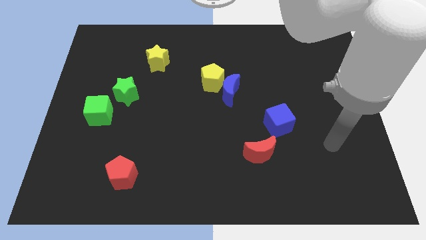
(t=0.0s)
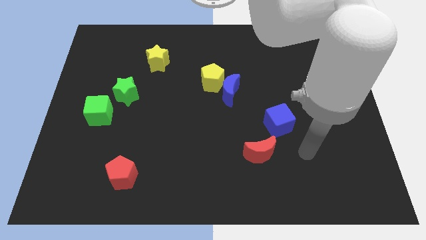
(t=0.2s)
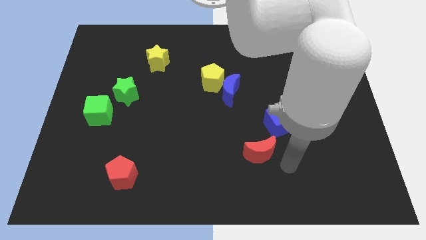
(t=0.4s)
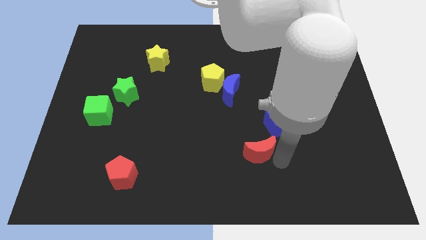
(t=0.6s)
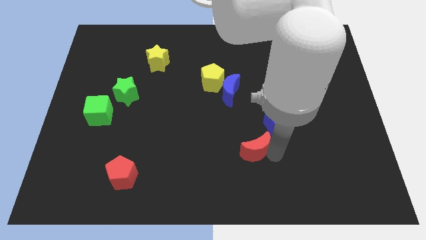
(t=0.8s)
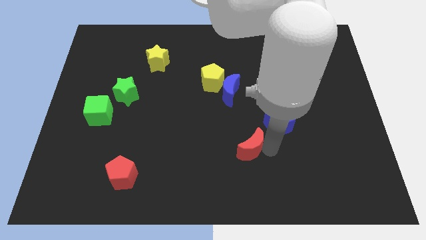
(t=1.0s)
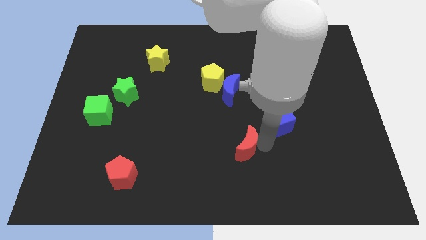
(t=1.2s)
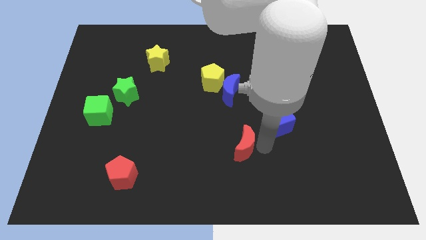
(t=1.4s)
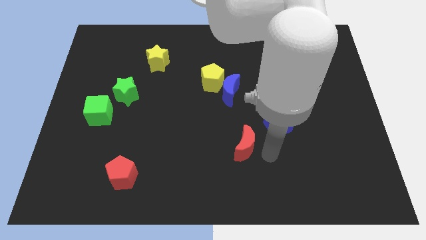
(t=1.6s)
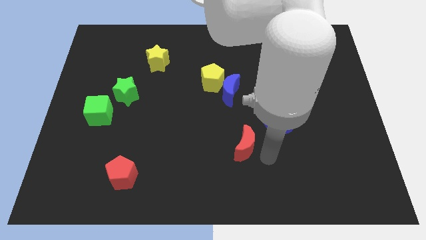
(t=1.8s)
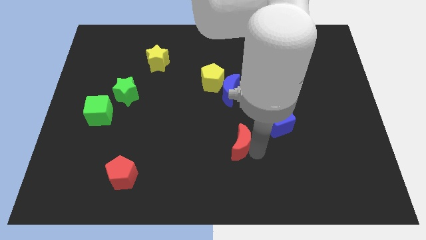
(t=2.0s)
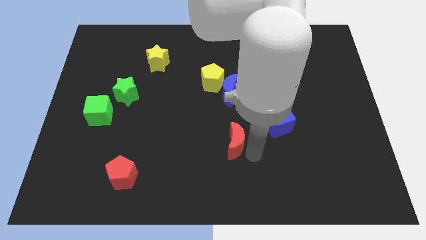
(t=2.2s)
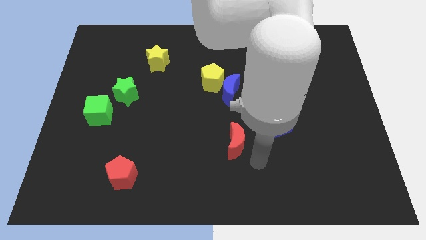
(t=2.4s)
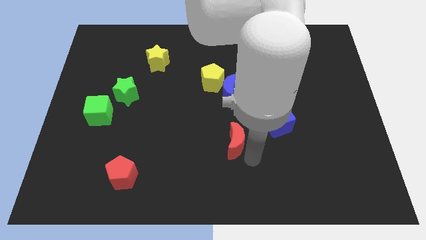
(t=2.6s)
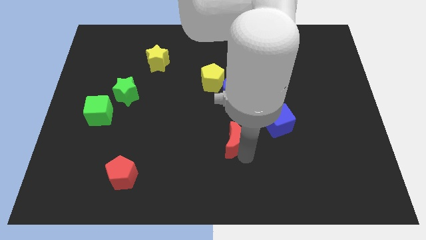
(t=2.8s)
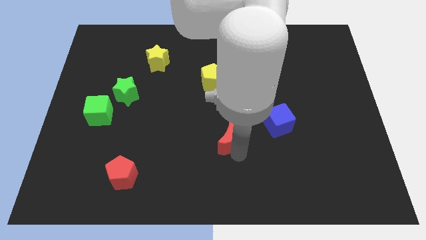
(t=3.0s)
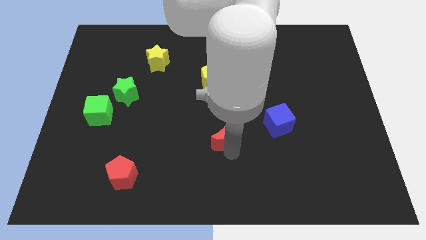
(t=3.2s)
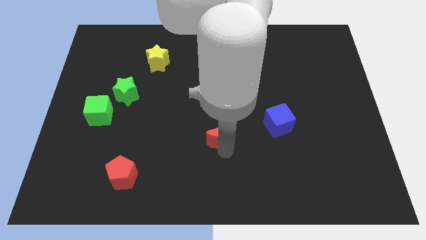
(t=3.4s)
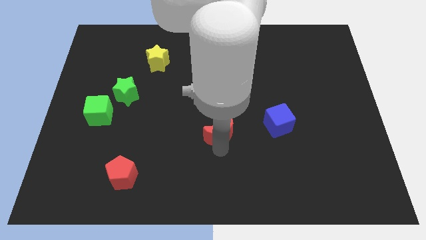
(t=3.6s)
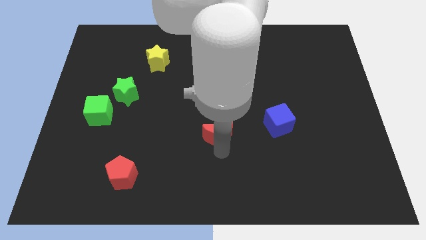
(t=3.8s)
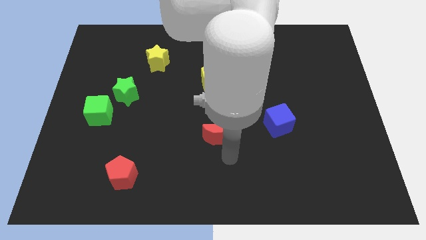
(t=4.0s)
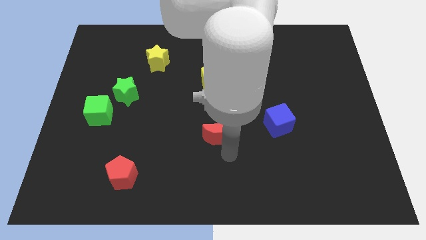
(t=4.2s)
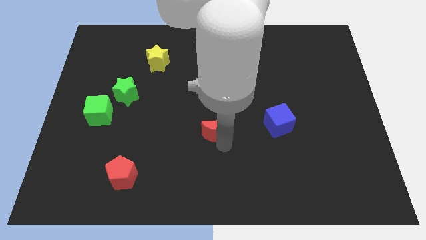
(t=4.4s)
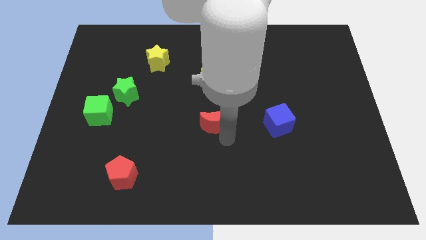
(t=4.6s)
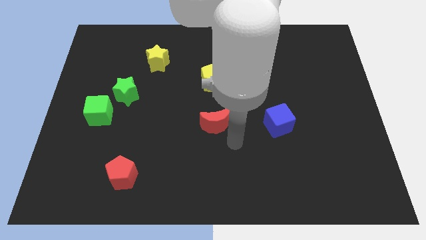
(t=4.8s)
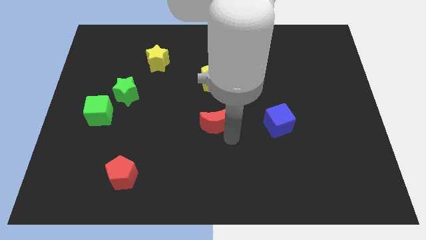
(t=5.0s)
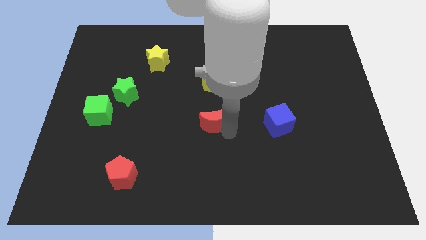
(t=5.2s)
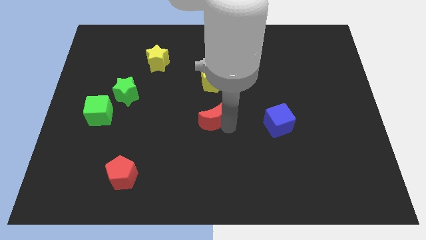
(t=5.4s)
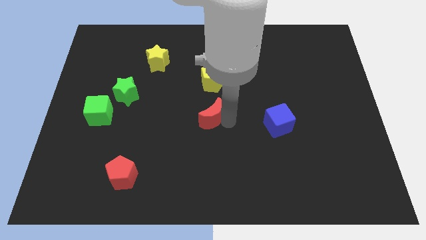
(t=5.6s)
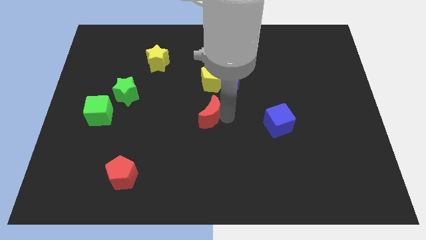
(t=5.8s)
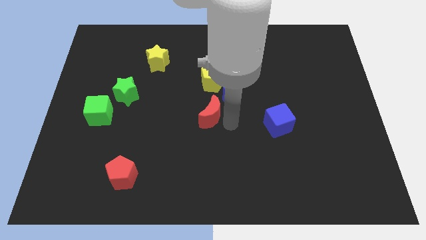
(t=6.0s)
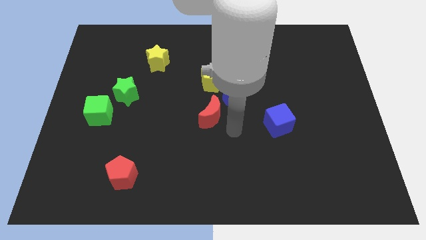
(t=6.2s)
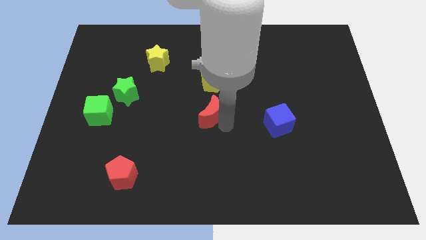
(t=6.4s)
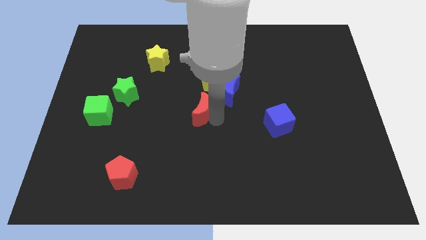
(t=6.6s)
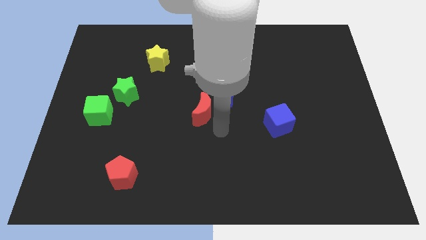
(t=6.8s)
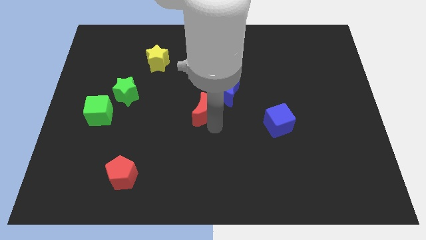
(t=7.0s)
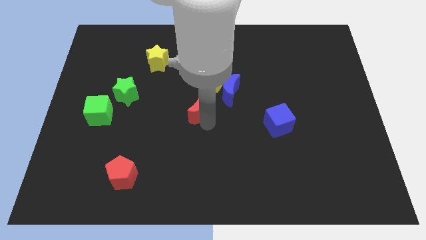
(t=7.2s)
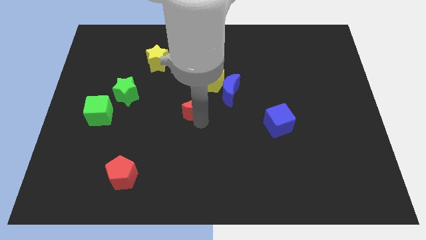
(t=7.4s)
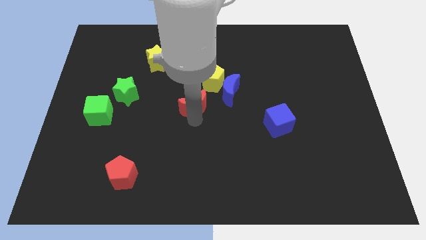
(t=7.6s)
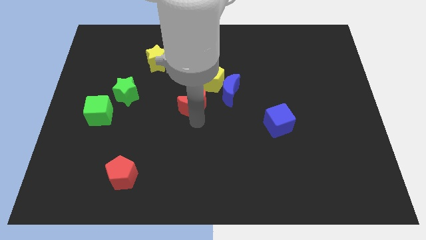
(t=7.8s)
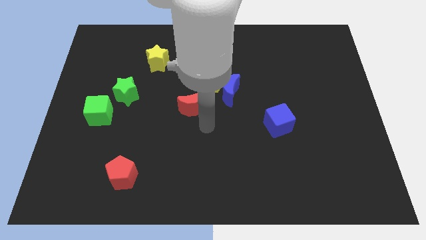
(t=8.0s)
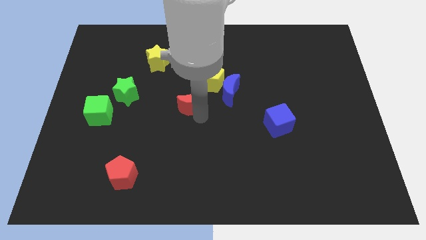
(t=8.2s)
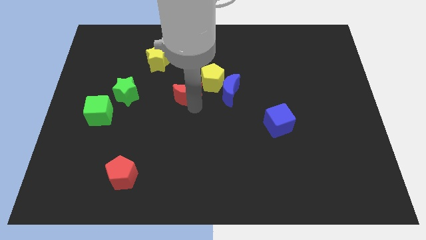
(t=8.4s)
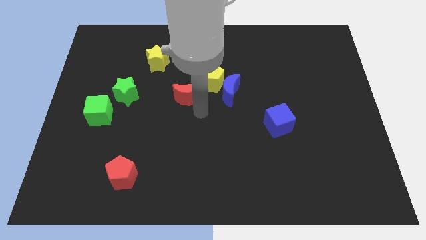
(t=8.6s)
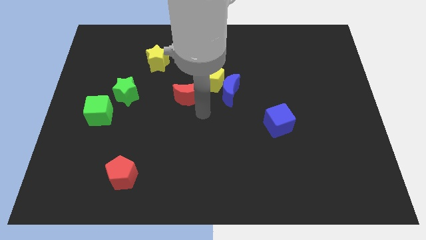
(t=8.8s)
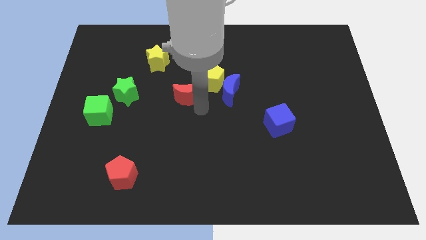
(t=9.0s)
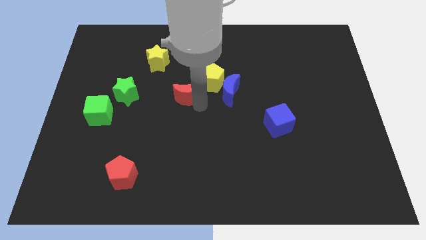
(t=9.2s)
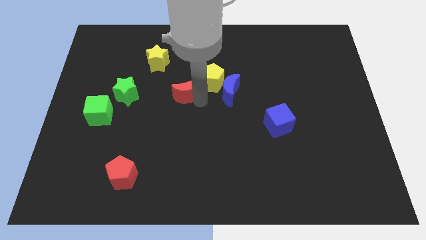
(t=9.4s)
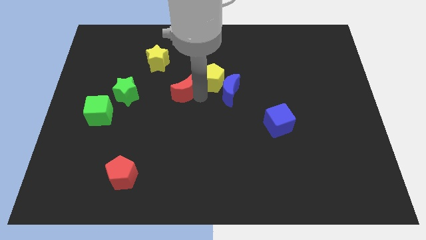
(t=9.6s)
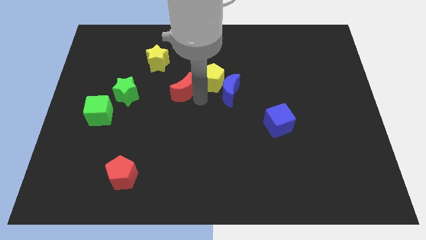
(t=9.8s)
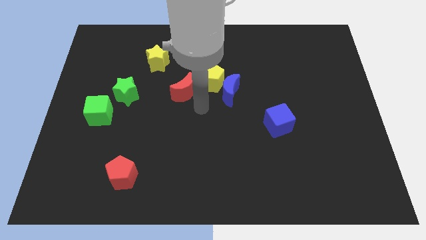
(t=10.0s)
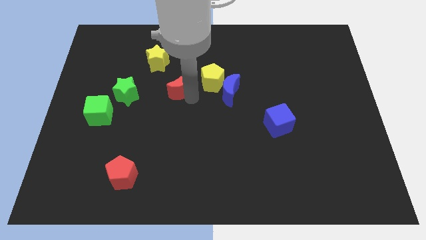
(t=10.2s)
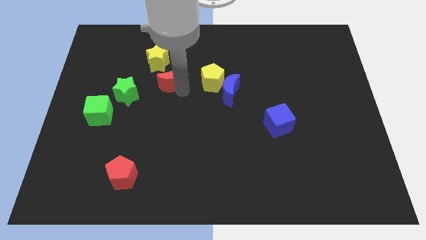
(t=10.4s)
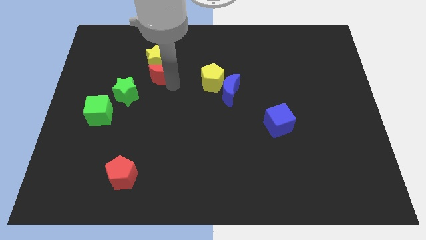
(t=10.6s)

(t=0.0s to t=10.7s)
move the red moon towards the yellow star

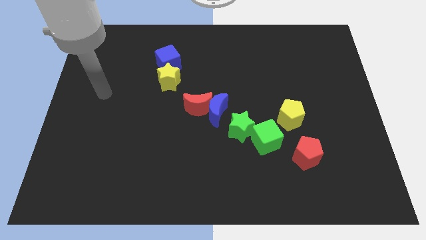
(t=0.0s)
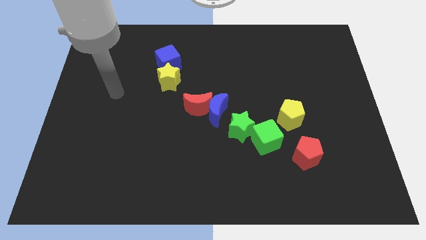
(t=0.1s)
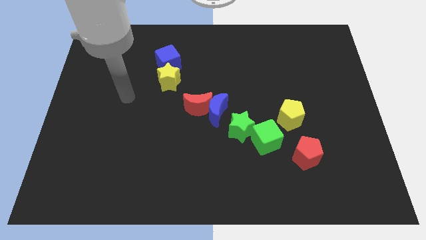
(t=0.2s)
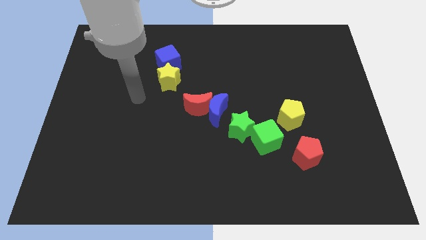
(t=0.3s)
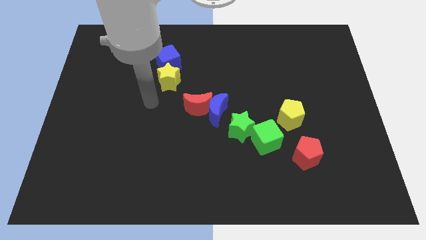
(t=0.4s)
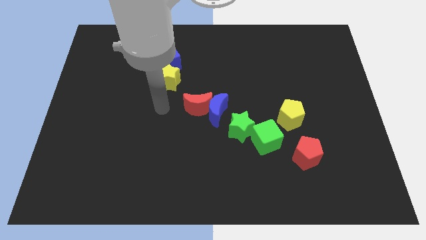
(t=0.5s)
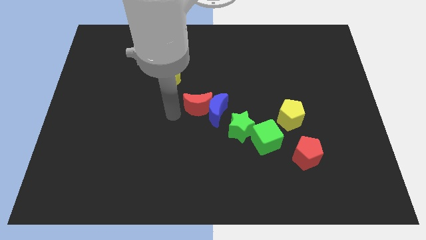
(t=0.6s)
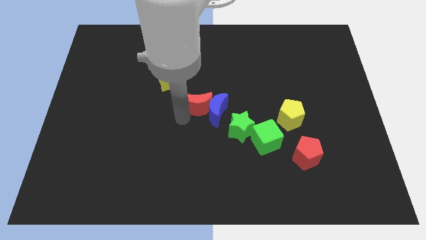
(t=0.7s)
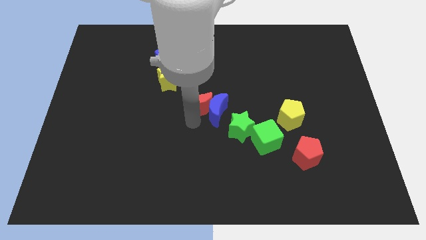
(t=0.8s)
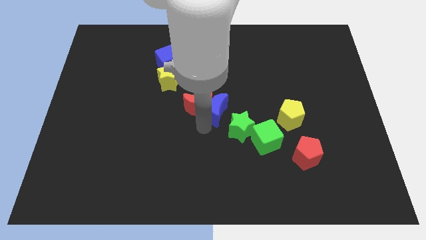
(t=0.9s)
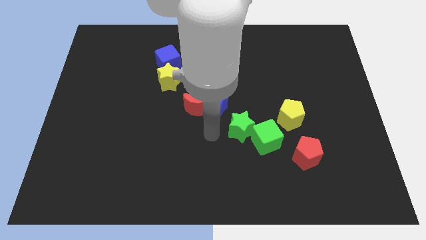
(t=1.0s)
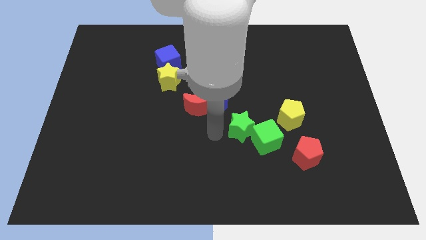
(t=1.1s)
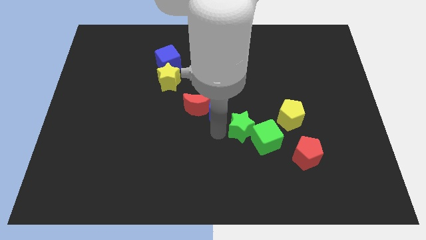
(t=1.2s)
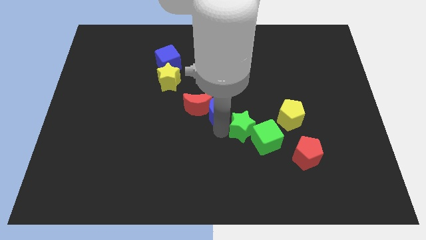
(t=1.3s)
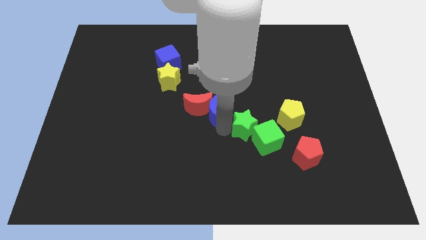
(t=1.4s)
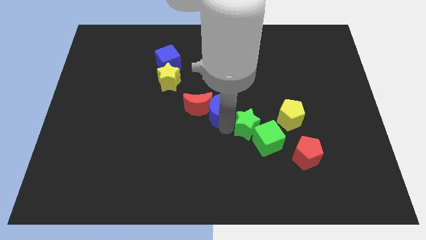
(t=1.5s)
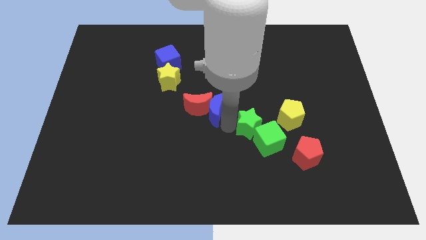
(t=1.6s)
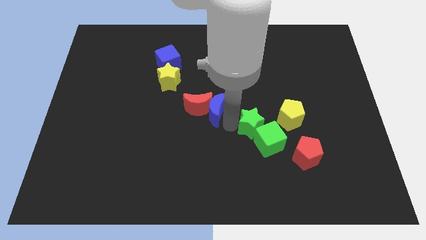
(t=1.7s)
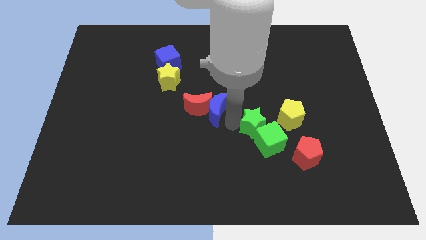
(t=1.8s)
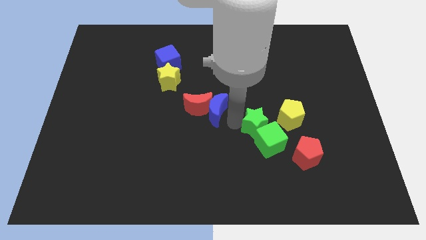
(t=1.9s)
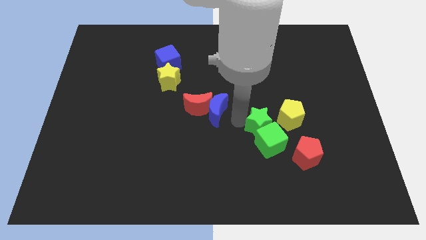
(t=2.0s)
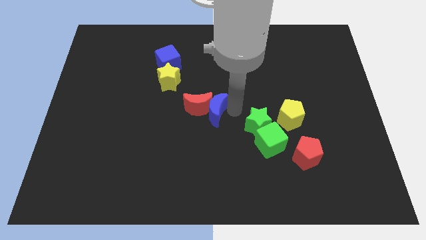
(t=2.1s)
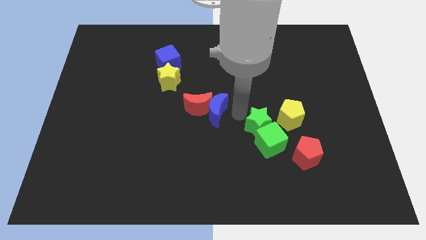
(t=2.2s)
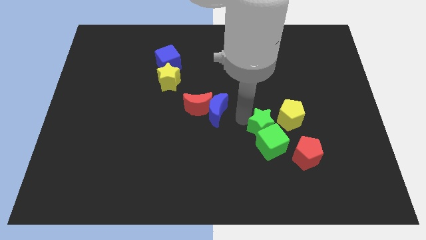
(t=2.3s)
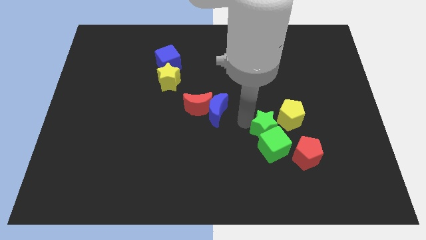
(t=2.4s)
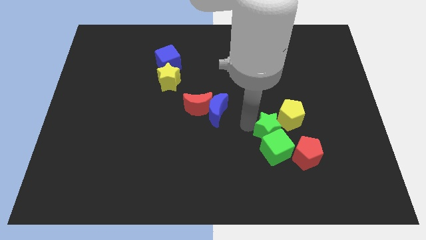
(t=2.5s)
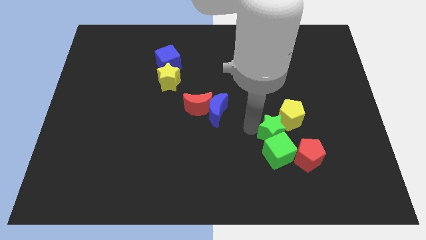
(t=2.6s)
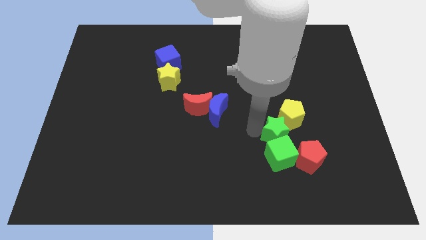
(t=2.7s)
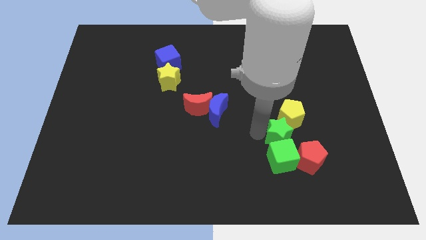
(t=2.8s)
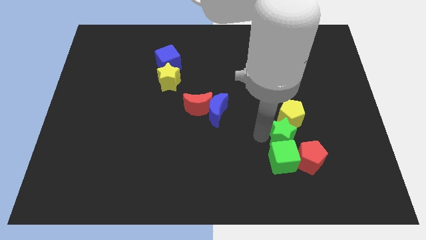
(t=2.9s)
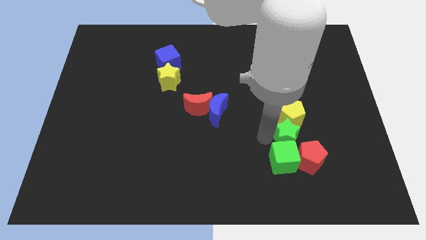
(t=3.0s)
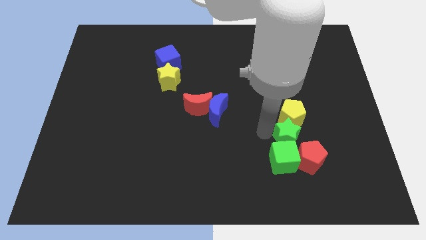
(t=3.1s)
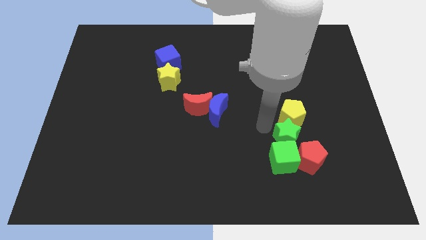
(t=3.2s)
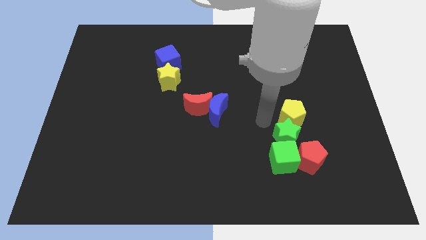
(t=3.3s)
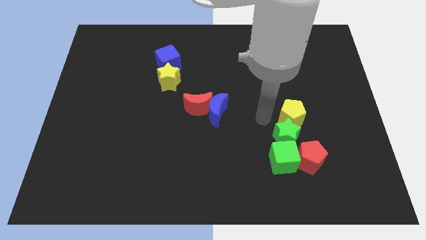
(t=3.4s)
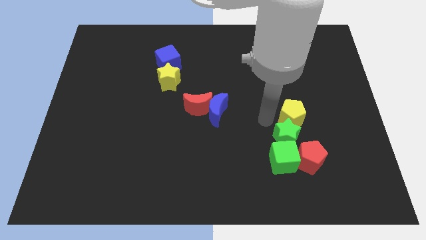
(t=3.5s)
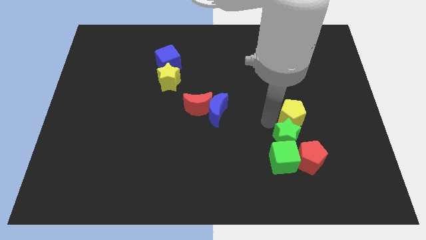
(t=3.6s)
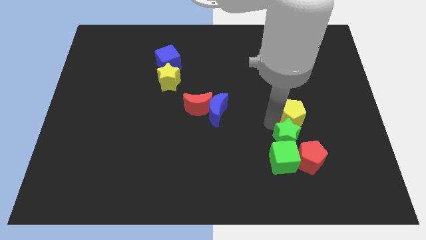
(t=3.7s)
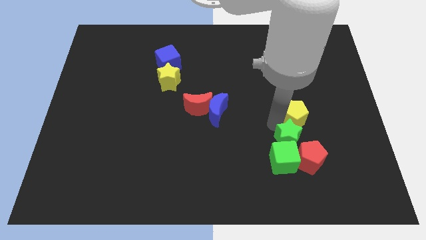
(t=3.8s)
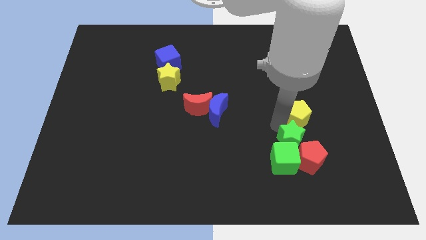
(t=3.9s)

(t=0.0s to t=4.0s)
put the green star towards the red pentagon
